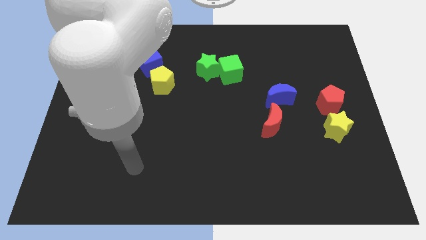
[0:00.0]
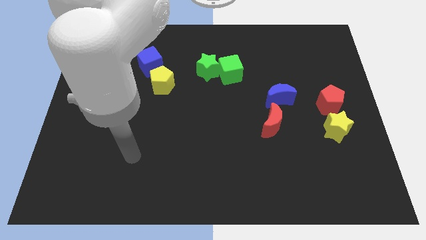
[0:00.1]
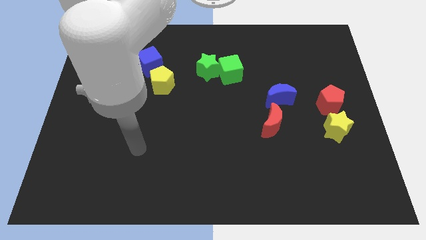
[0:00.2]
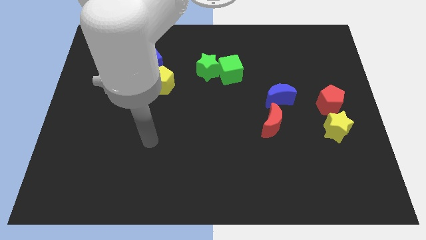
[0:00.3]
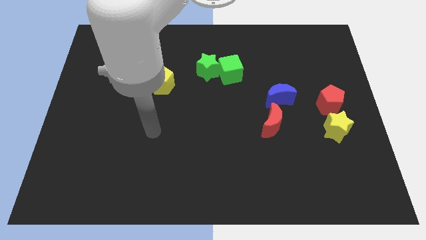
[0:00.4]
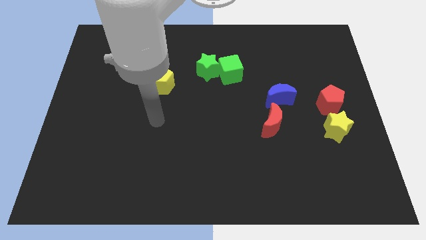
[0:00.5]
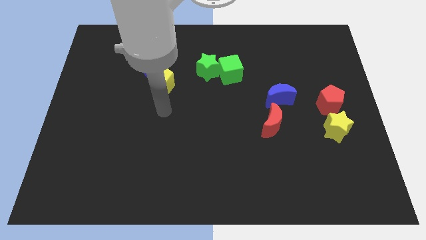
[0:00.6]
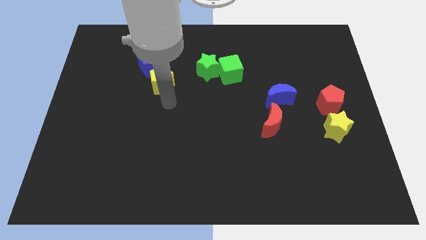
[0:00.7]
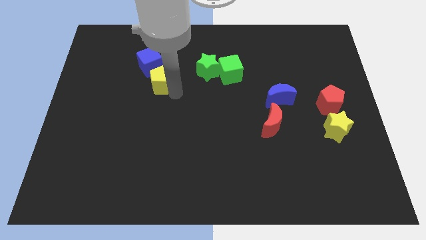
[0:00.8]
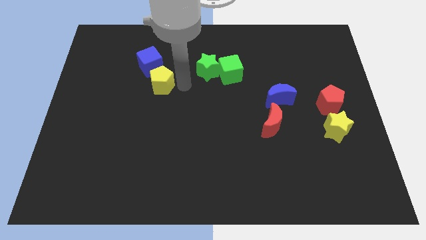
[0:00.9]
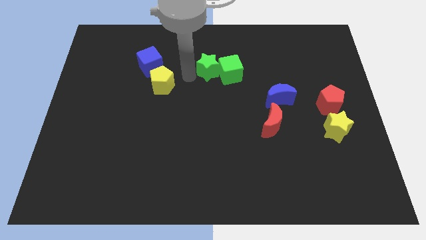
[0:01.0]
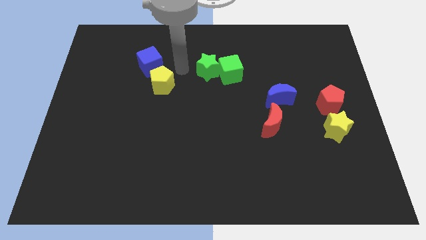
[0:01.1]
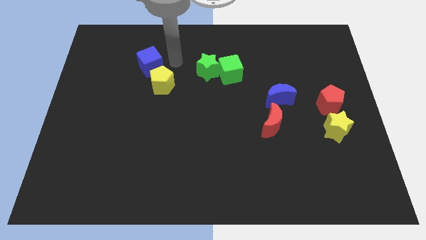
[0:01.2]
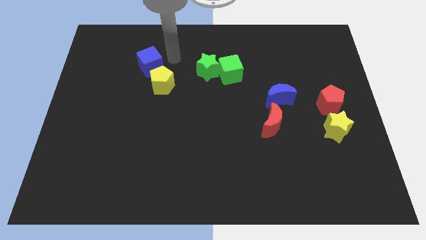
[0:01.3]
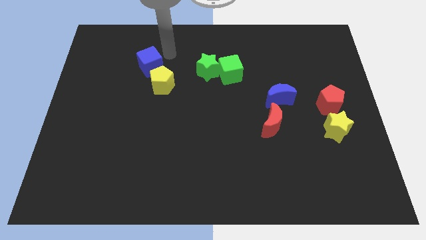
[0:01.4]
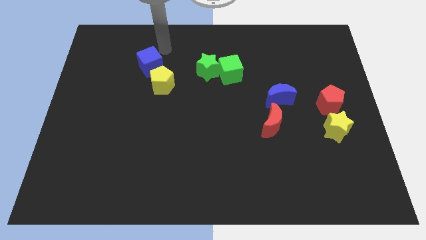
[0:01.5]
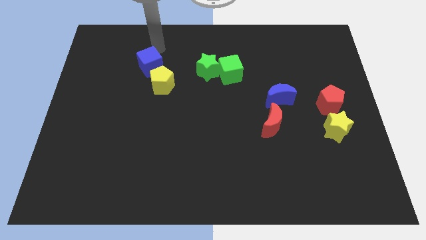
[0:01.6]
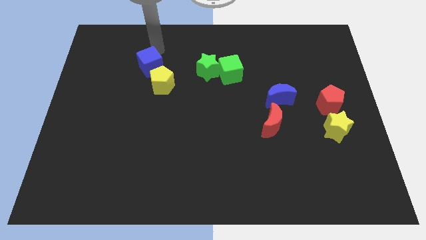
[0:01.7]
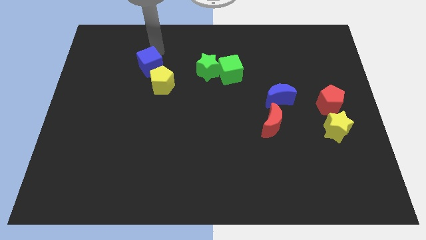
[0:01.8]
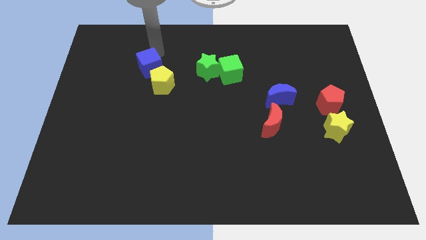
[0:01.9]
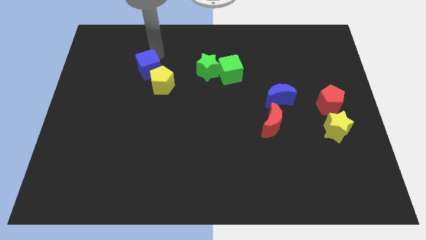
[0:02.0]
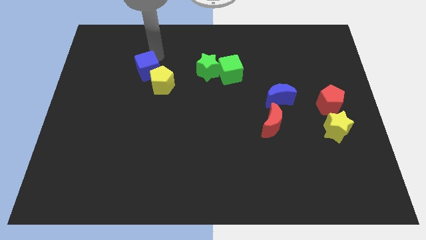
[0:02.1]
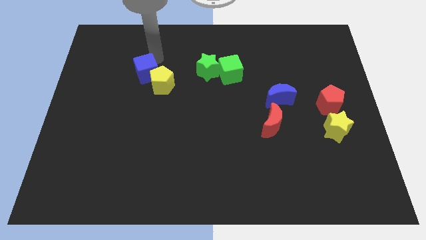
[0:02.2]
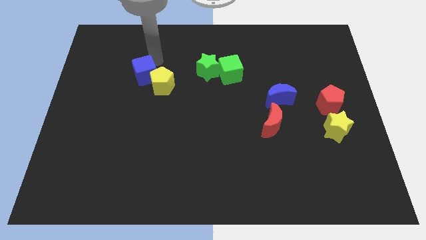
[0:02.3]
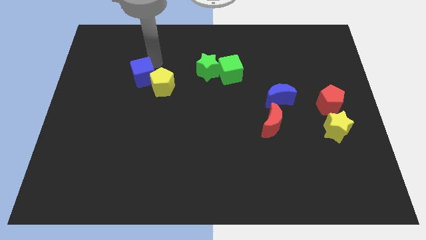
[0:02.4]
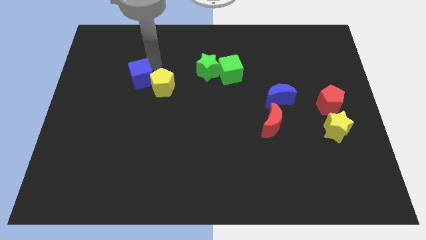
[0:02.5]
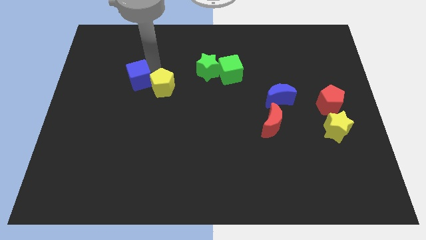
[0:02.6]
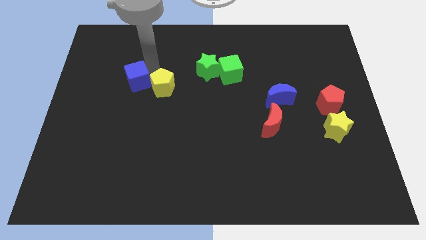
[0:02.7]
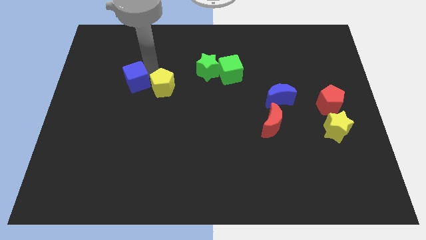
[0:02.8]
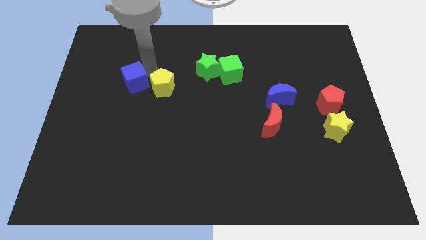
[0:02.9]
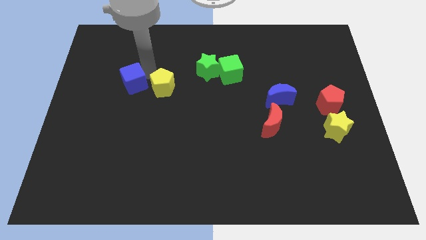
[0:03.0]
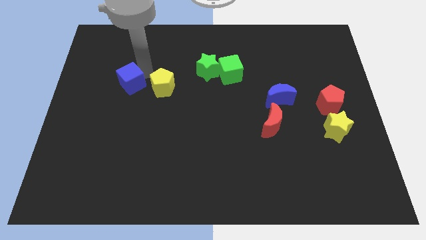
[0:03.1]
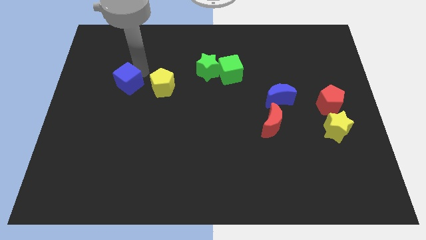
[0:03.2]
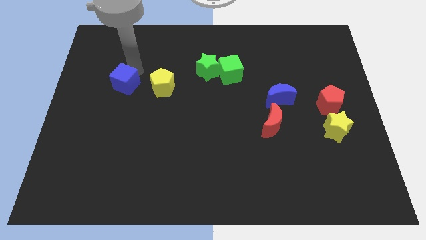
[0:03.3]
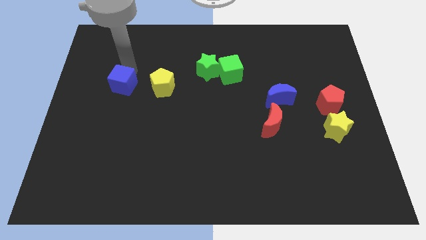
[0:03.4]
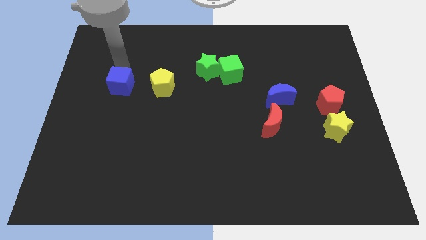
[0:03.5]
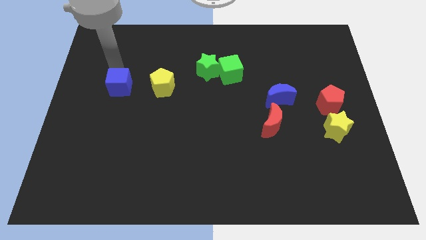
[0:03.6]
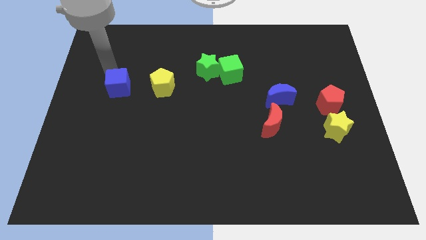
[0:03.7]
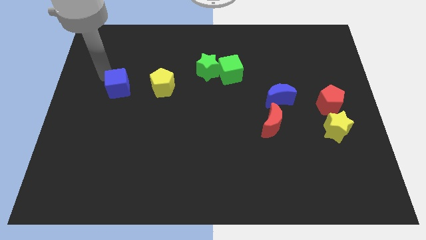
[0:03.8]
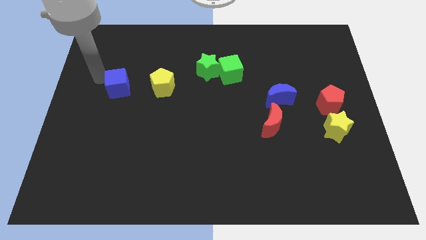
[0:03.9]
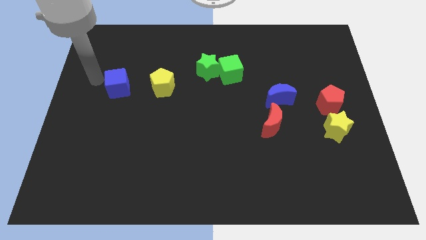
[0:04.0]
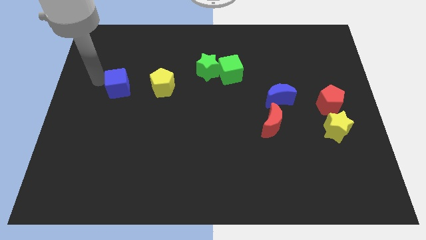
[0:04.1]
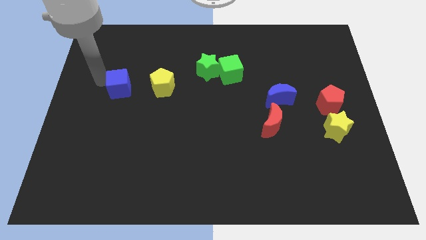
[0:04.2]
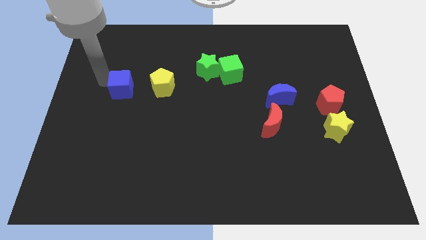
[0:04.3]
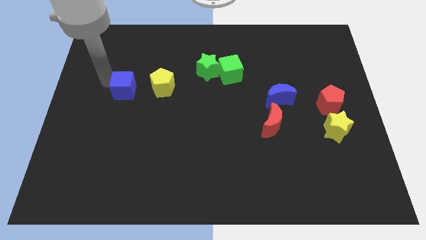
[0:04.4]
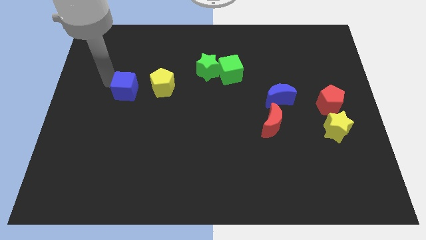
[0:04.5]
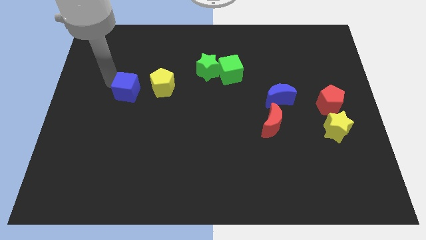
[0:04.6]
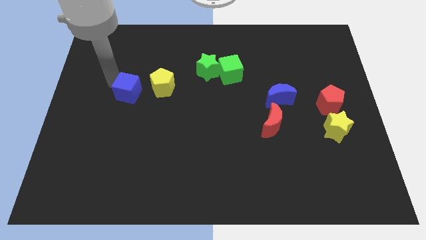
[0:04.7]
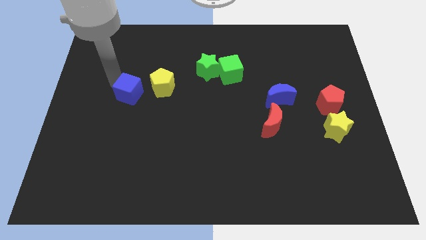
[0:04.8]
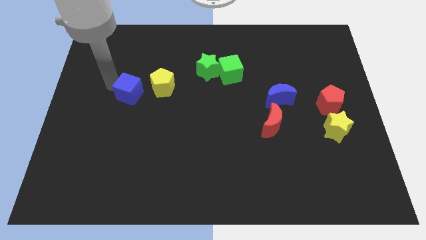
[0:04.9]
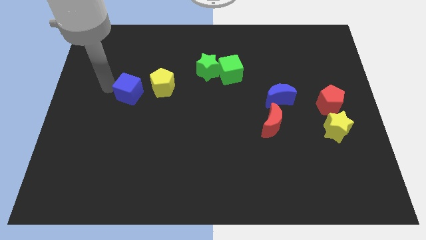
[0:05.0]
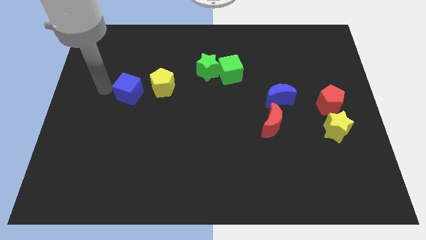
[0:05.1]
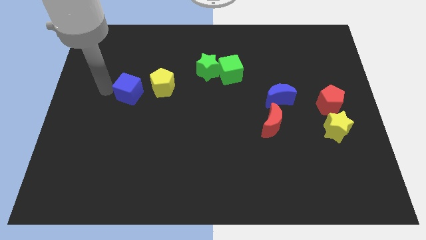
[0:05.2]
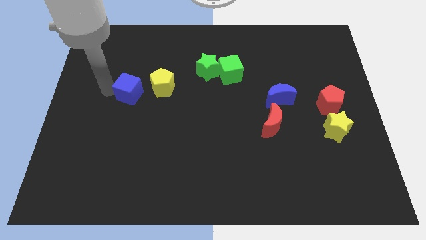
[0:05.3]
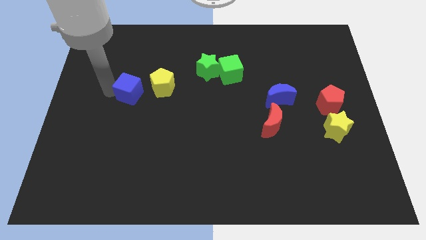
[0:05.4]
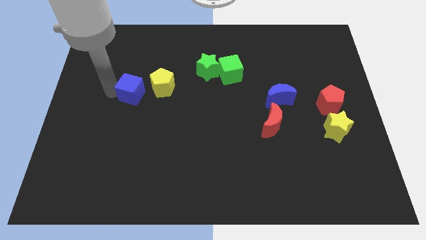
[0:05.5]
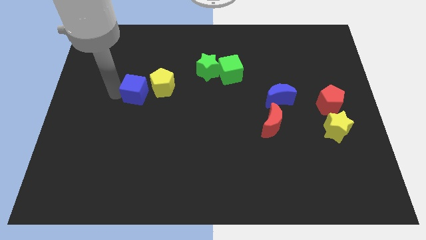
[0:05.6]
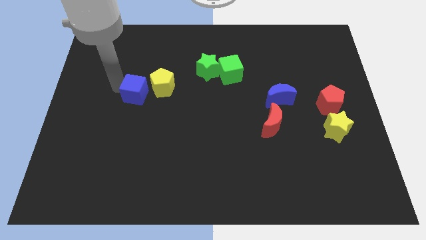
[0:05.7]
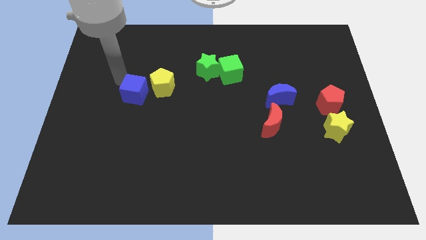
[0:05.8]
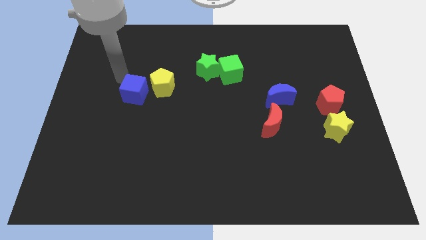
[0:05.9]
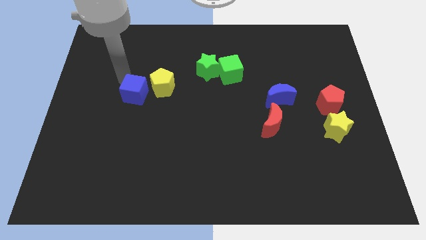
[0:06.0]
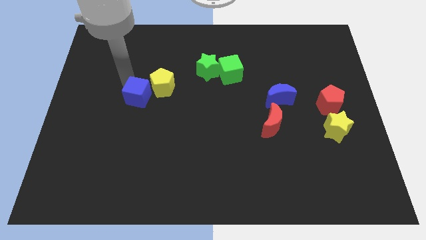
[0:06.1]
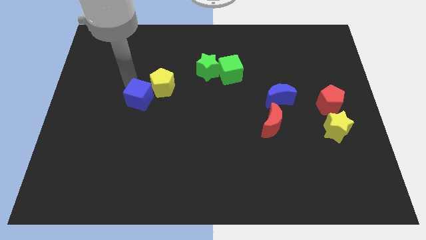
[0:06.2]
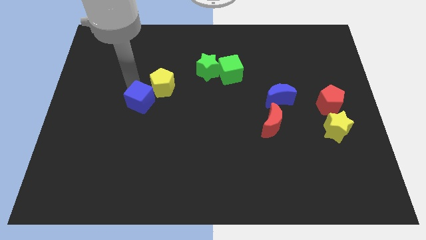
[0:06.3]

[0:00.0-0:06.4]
put the blue cube to the bottom side of the yellow pentagon

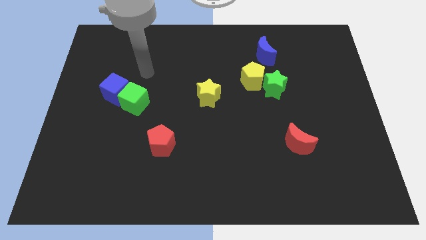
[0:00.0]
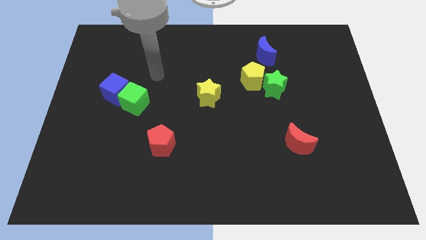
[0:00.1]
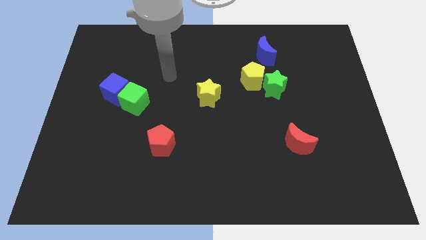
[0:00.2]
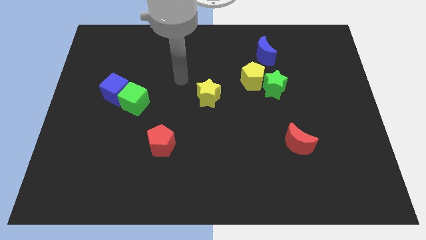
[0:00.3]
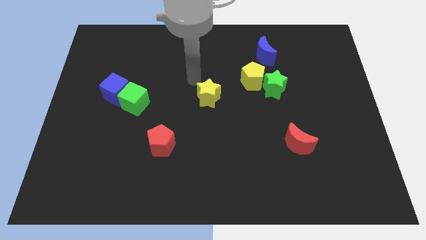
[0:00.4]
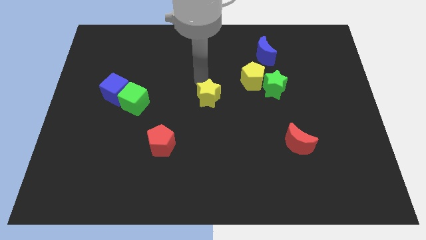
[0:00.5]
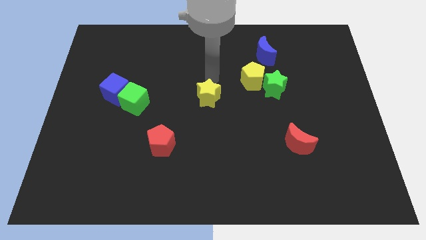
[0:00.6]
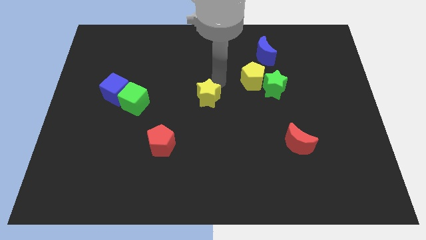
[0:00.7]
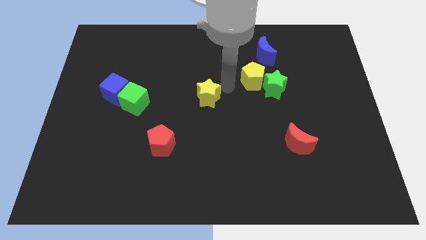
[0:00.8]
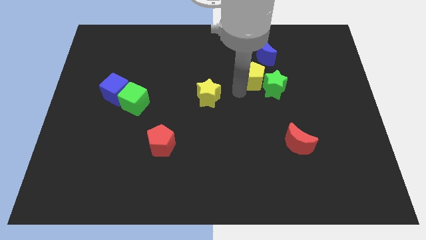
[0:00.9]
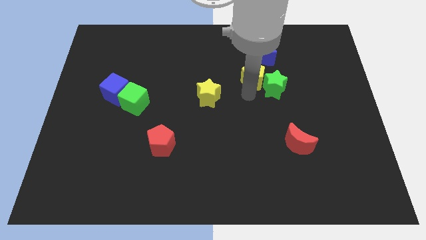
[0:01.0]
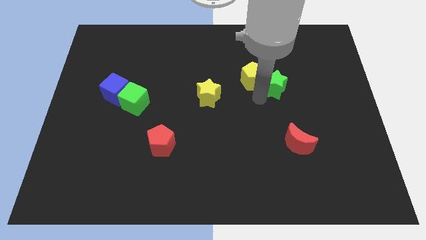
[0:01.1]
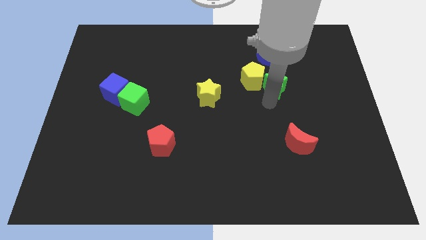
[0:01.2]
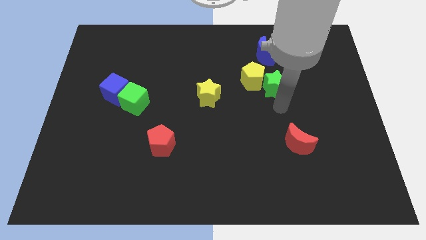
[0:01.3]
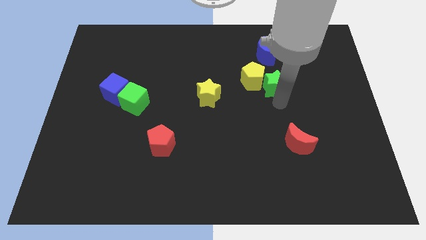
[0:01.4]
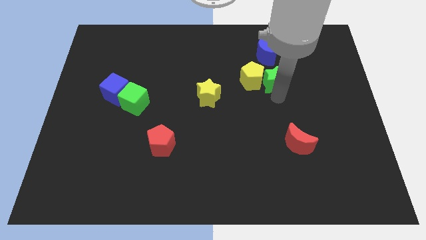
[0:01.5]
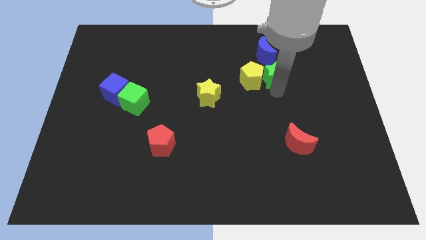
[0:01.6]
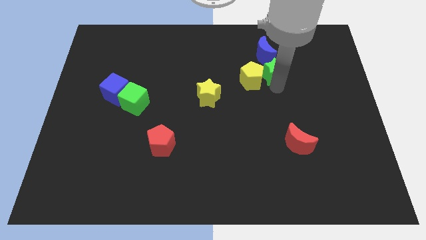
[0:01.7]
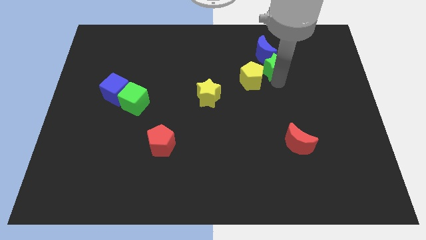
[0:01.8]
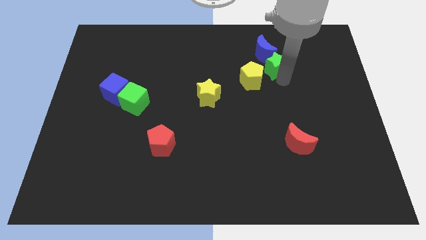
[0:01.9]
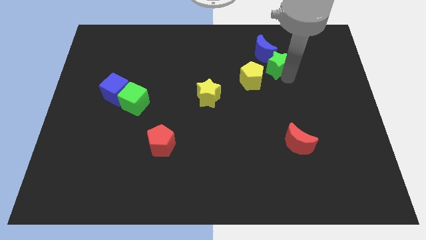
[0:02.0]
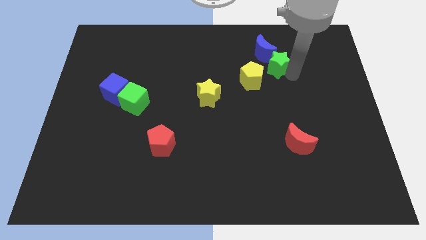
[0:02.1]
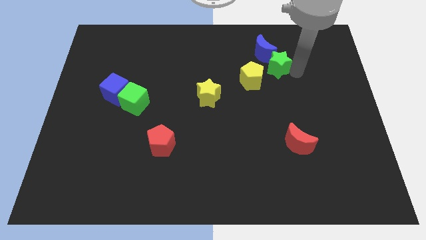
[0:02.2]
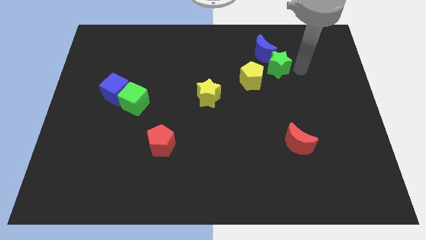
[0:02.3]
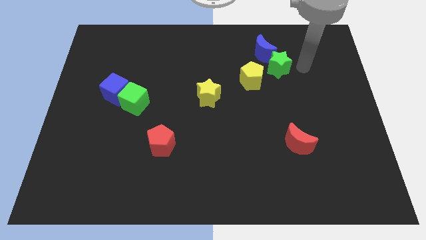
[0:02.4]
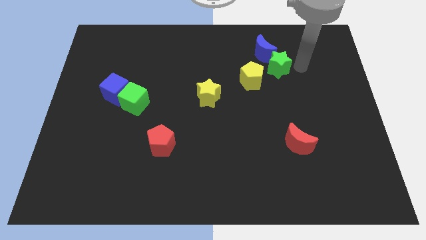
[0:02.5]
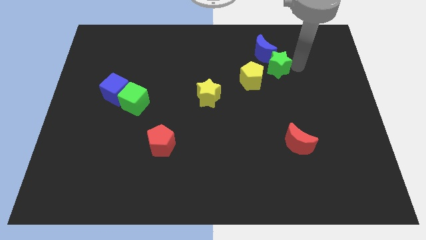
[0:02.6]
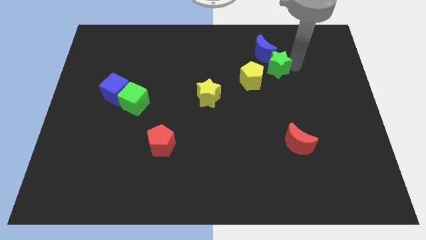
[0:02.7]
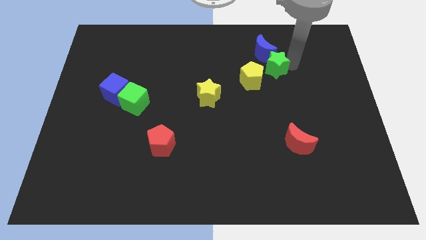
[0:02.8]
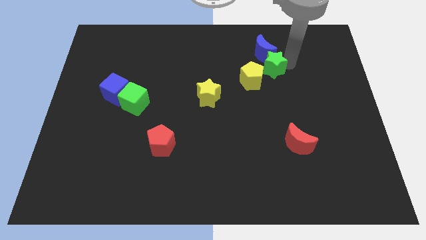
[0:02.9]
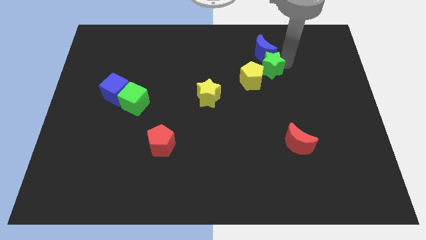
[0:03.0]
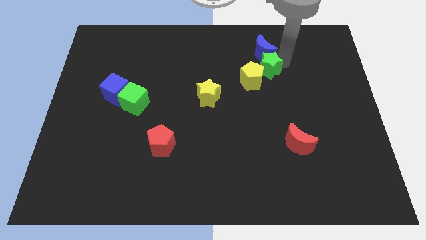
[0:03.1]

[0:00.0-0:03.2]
move the green star diagonally down and to the left of the blue moon
